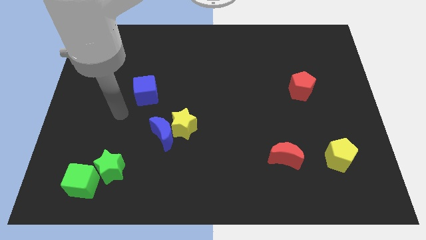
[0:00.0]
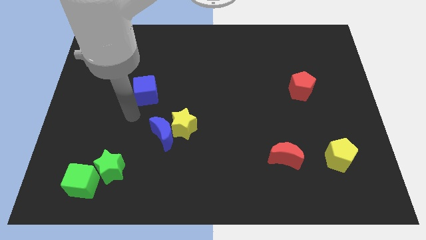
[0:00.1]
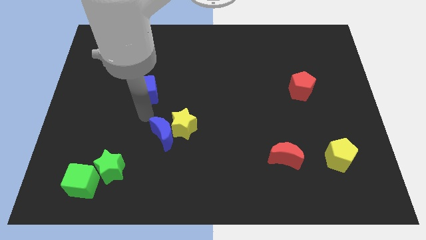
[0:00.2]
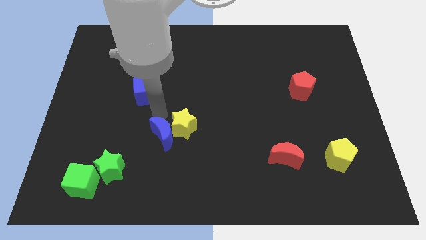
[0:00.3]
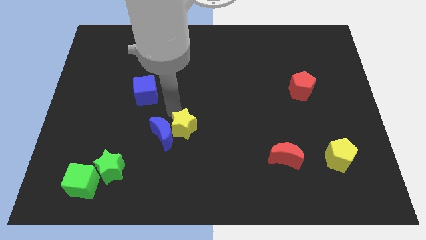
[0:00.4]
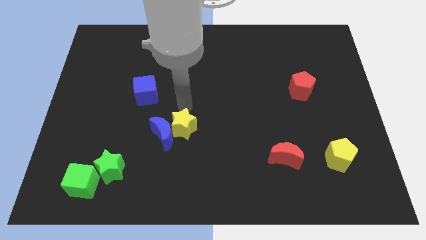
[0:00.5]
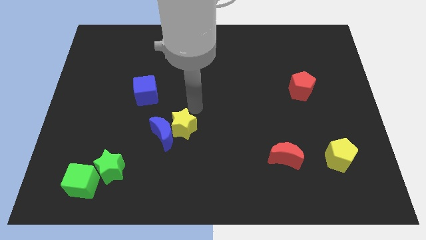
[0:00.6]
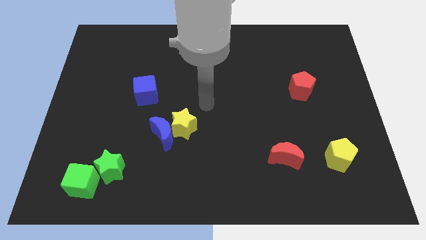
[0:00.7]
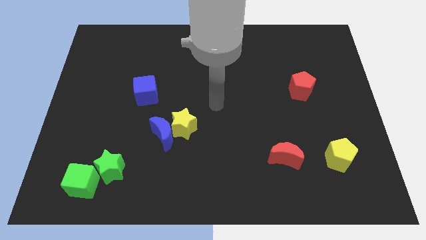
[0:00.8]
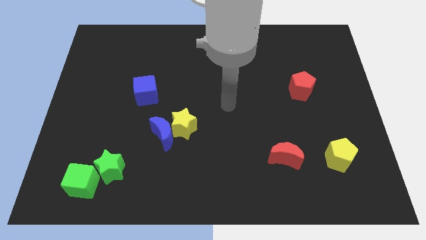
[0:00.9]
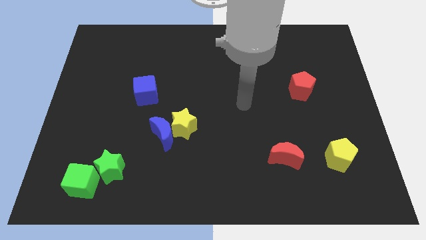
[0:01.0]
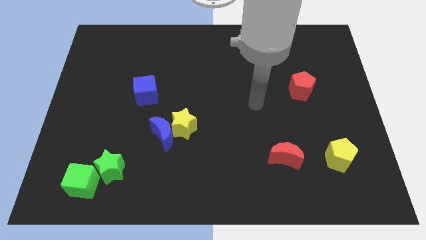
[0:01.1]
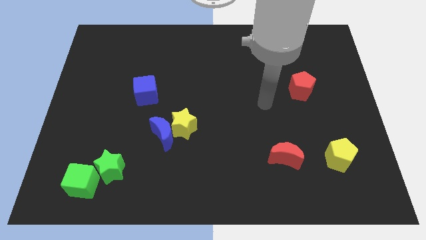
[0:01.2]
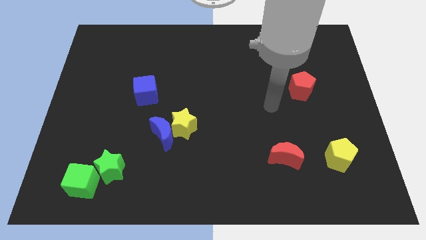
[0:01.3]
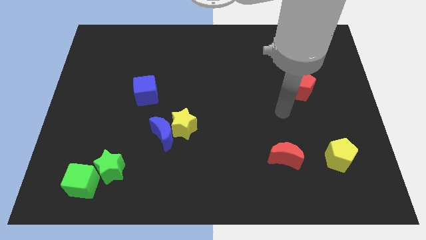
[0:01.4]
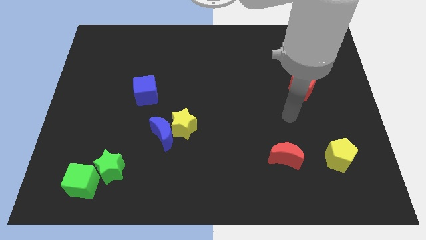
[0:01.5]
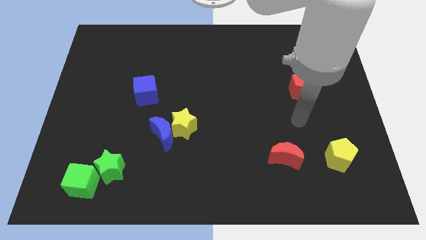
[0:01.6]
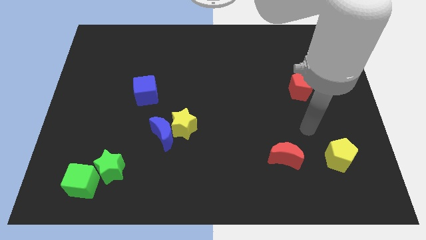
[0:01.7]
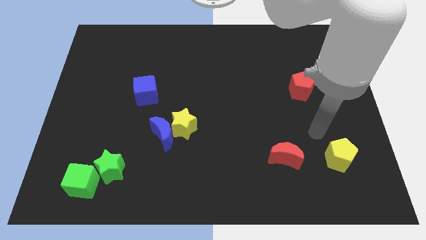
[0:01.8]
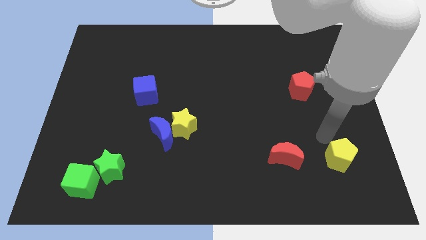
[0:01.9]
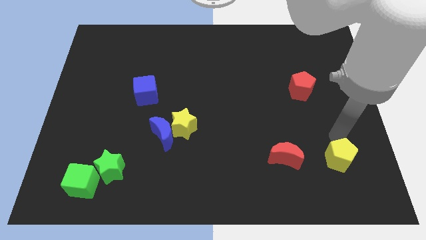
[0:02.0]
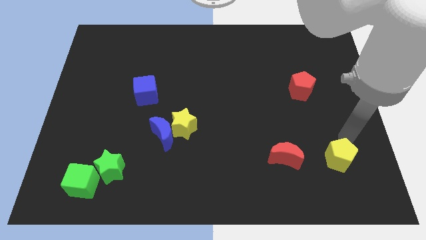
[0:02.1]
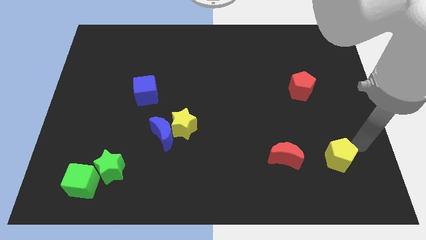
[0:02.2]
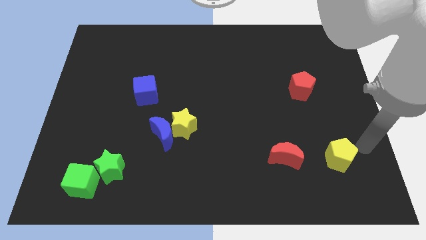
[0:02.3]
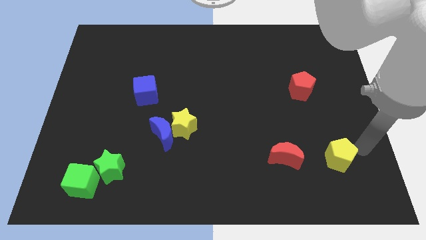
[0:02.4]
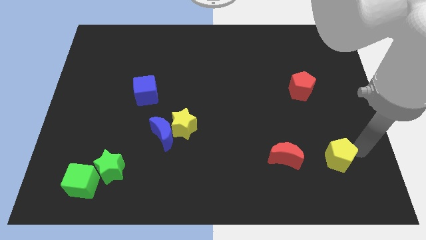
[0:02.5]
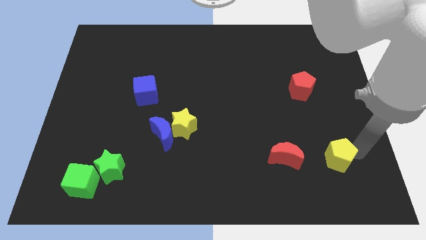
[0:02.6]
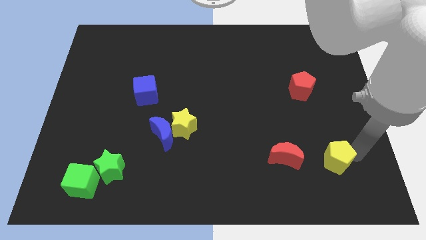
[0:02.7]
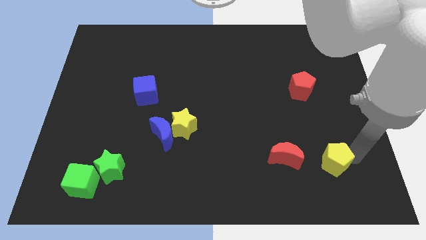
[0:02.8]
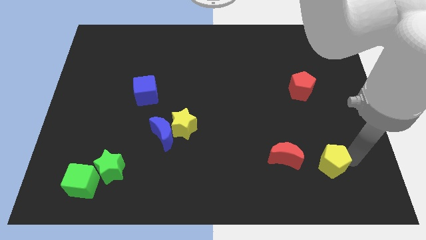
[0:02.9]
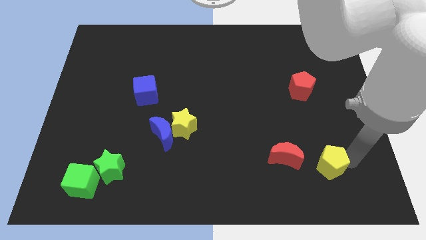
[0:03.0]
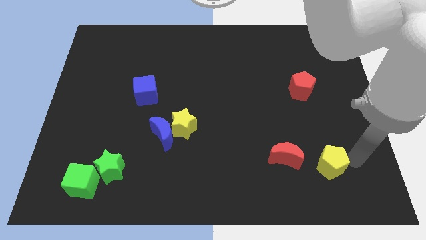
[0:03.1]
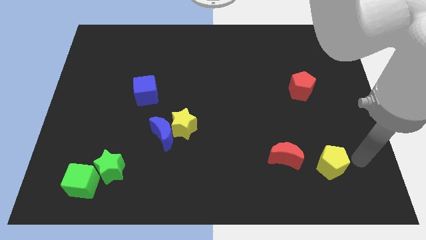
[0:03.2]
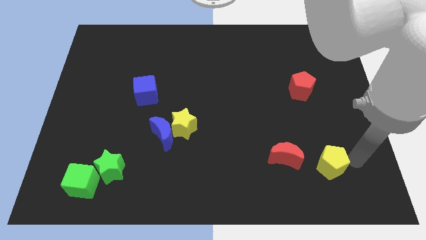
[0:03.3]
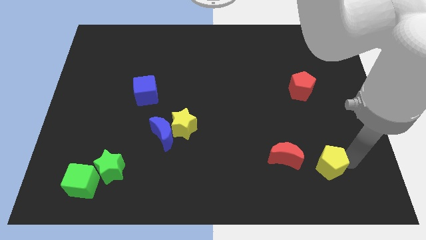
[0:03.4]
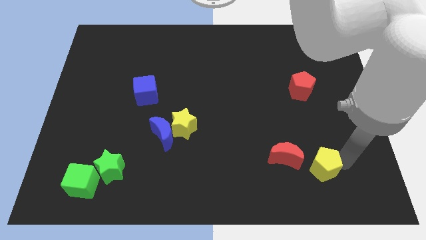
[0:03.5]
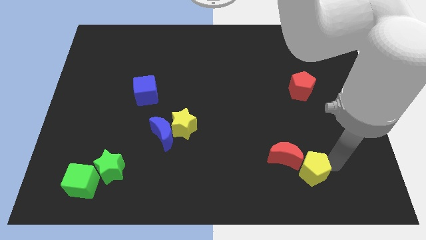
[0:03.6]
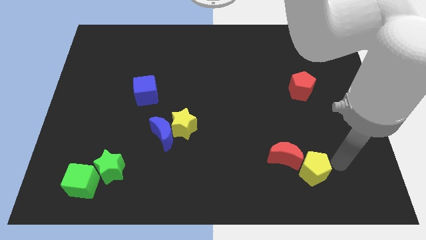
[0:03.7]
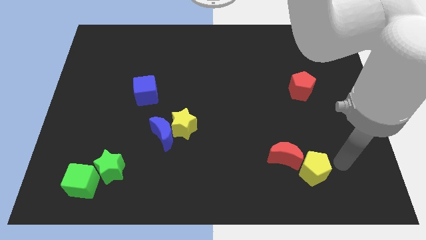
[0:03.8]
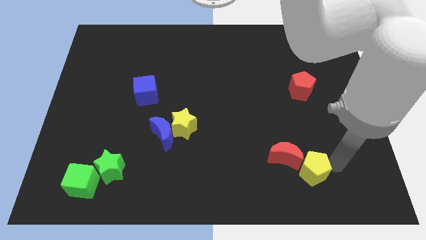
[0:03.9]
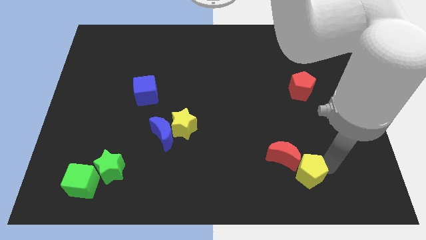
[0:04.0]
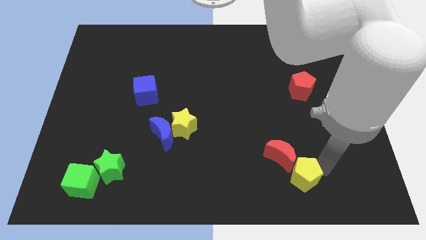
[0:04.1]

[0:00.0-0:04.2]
slightly slide the yellow pentagon left

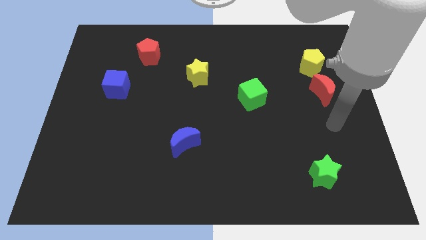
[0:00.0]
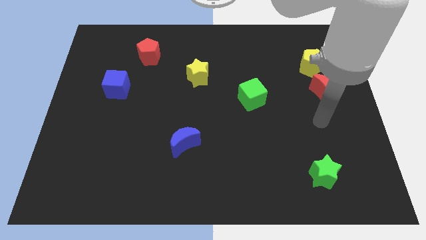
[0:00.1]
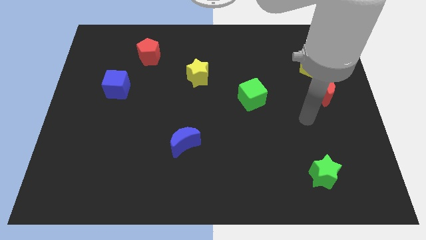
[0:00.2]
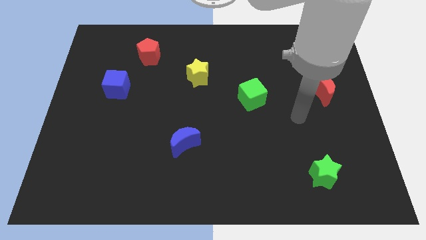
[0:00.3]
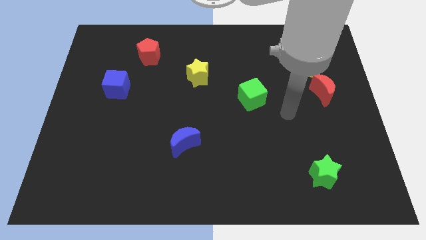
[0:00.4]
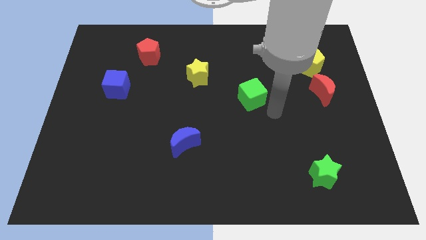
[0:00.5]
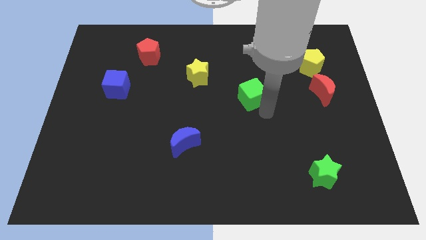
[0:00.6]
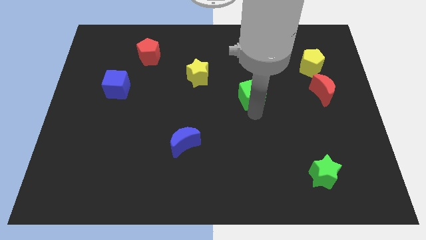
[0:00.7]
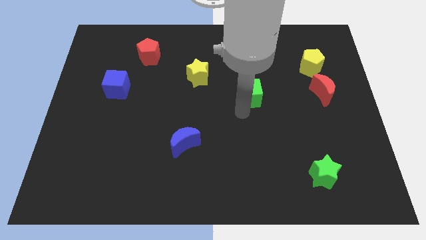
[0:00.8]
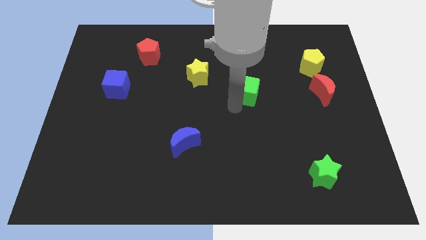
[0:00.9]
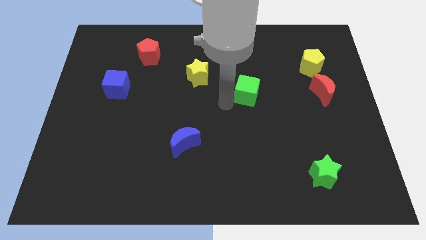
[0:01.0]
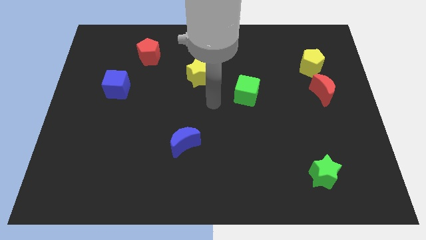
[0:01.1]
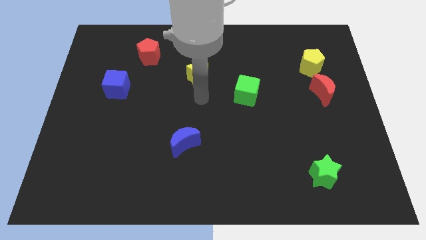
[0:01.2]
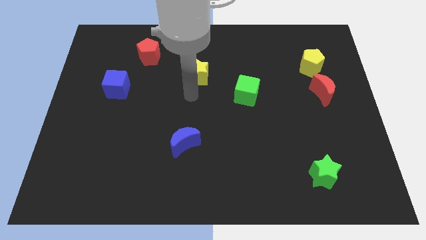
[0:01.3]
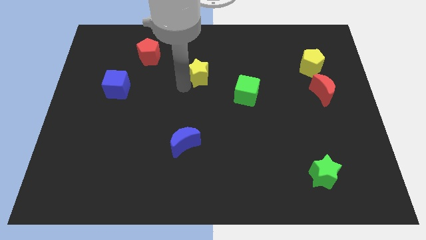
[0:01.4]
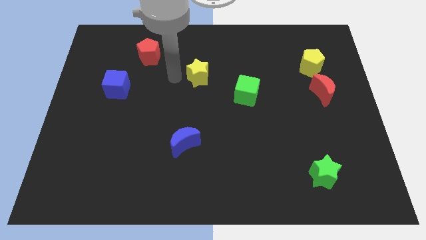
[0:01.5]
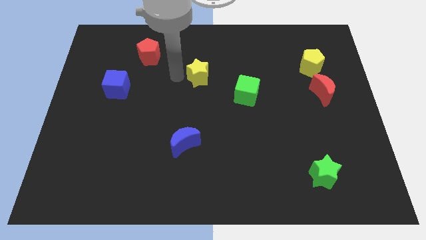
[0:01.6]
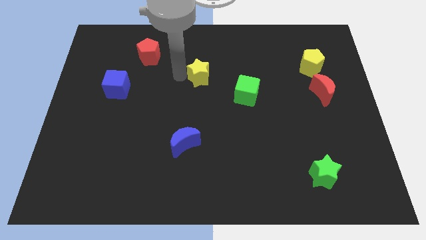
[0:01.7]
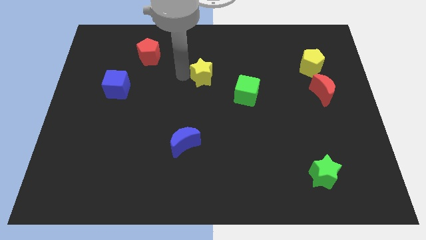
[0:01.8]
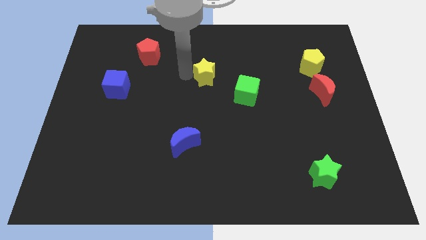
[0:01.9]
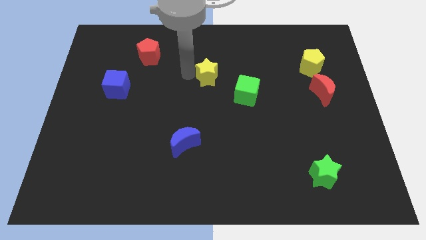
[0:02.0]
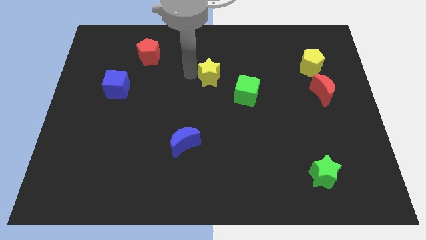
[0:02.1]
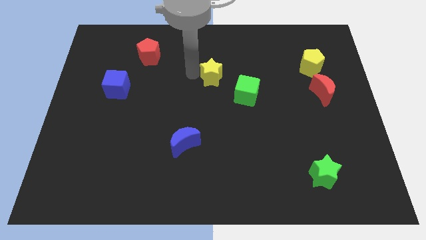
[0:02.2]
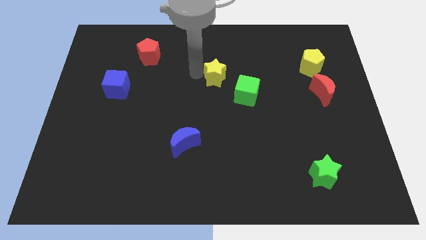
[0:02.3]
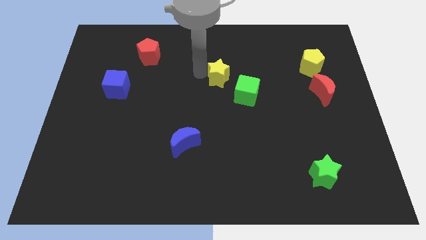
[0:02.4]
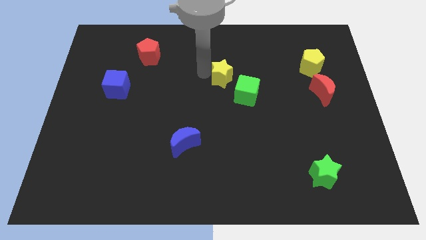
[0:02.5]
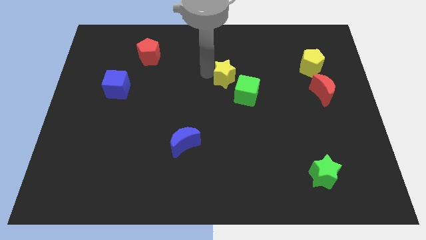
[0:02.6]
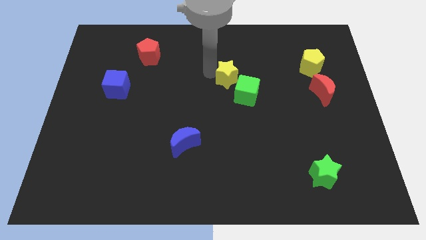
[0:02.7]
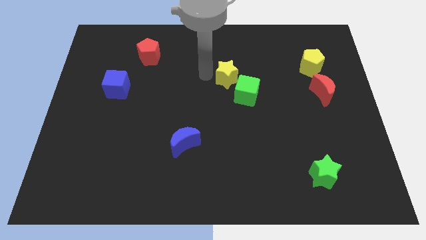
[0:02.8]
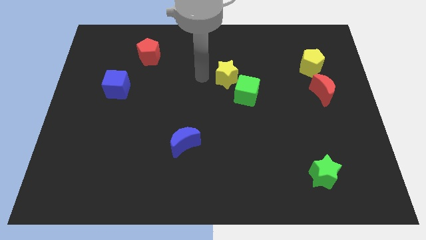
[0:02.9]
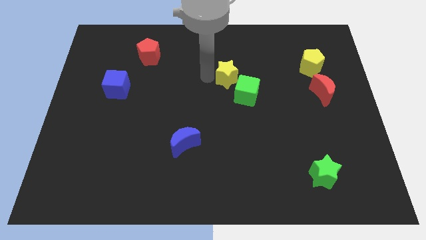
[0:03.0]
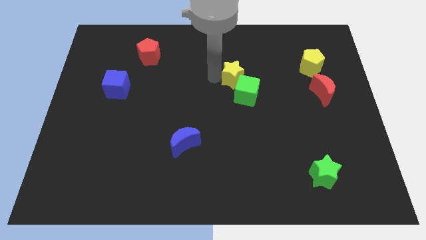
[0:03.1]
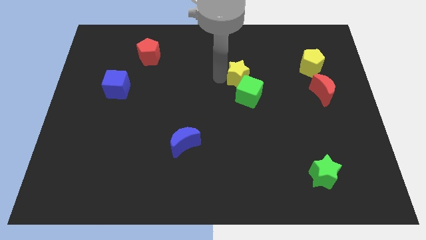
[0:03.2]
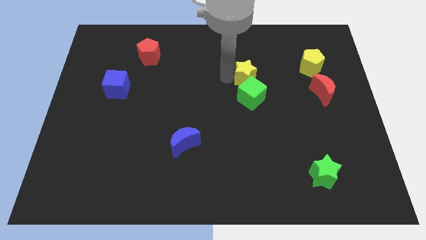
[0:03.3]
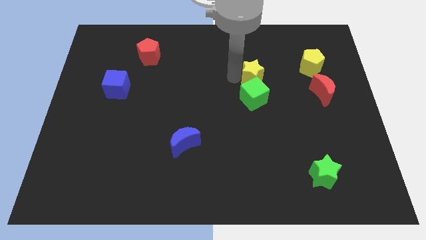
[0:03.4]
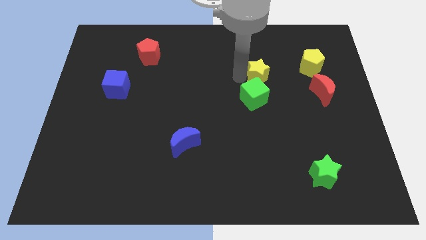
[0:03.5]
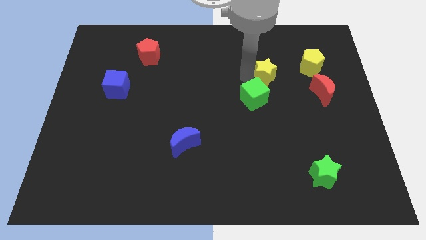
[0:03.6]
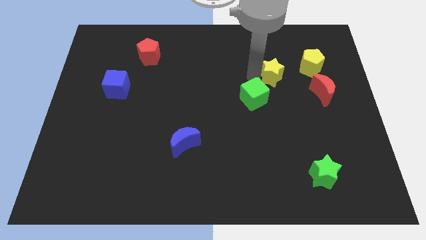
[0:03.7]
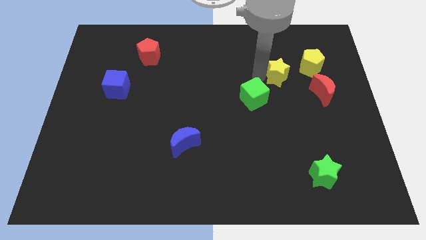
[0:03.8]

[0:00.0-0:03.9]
move the yellow star right

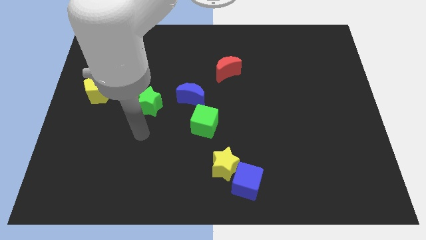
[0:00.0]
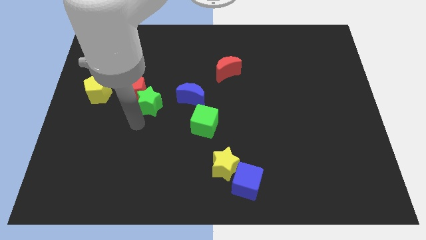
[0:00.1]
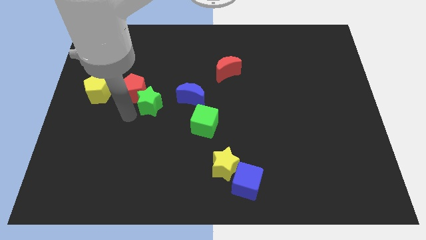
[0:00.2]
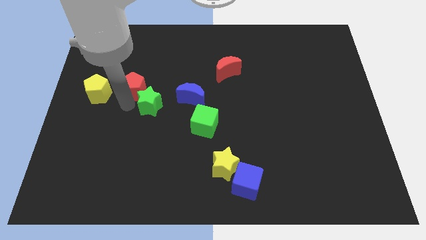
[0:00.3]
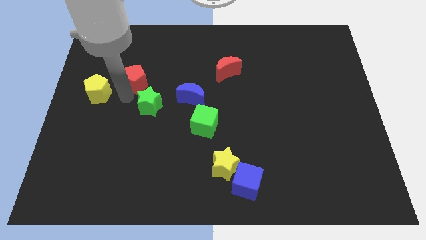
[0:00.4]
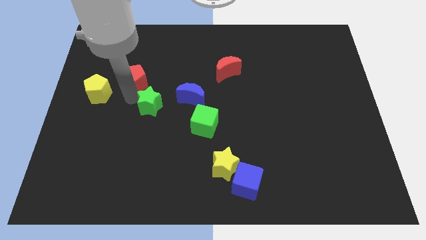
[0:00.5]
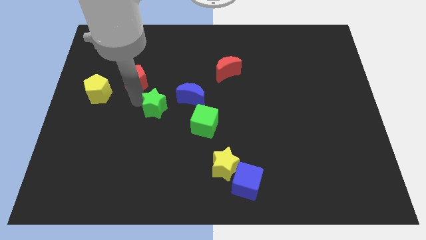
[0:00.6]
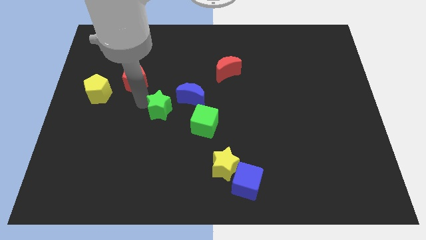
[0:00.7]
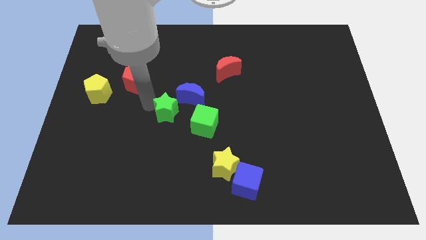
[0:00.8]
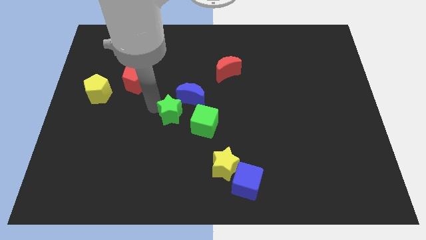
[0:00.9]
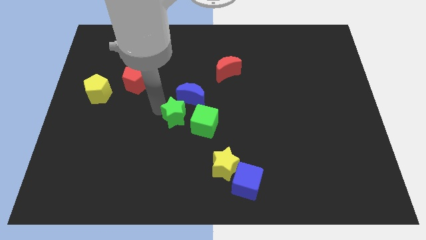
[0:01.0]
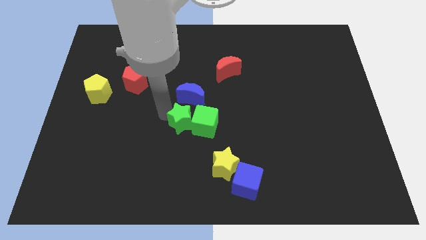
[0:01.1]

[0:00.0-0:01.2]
push the green star a bit to the right
